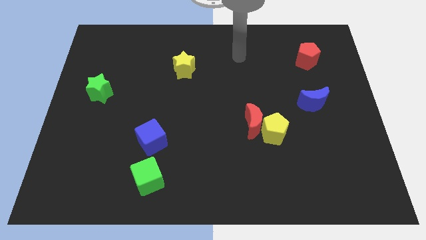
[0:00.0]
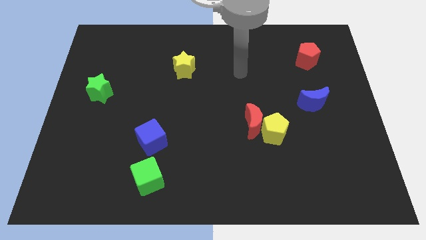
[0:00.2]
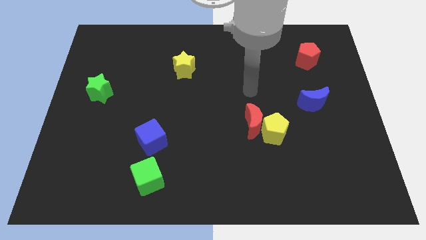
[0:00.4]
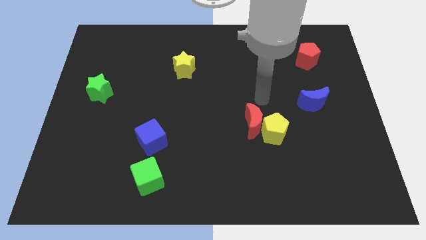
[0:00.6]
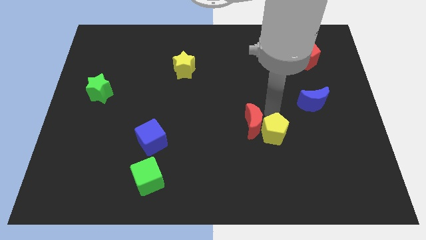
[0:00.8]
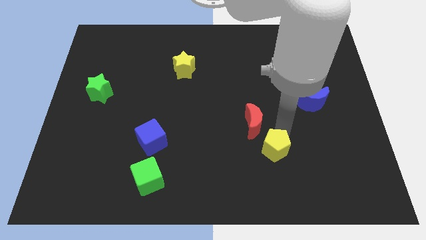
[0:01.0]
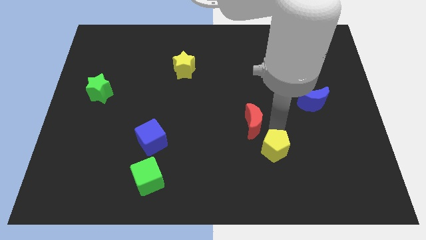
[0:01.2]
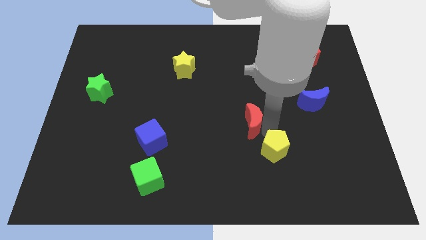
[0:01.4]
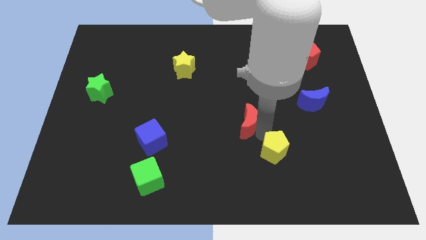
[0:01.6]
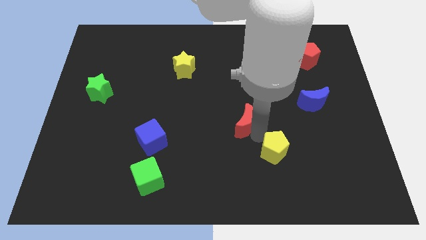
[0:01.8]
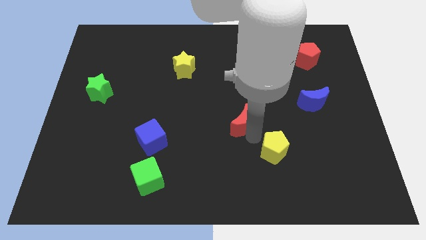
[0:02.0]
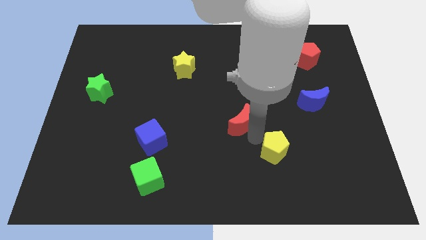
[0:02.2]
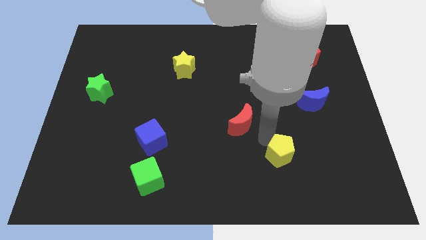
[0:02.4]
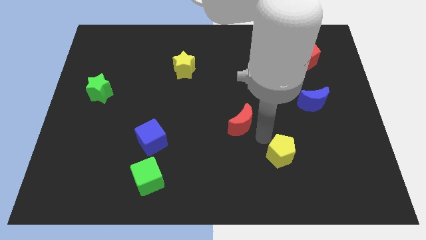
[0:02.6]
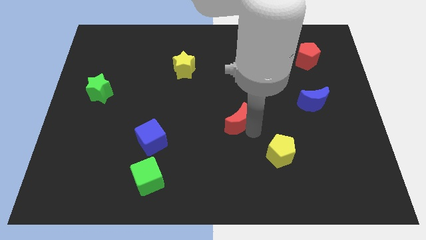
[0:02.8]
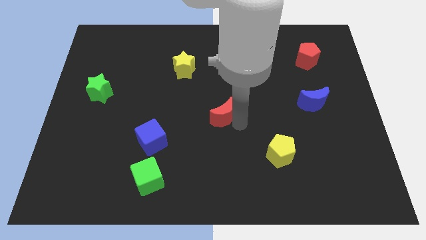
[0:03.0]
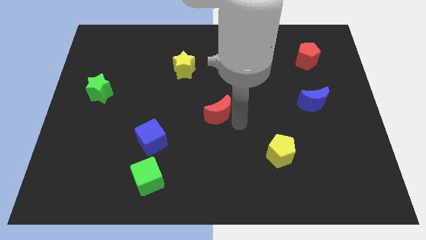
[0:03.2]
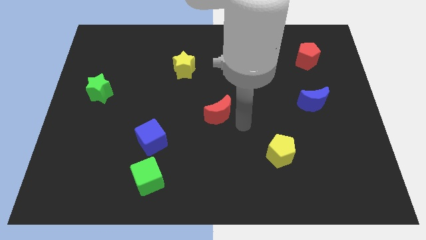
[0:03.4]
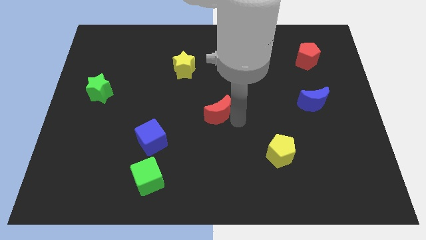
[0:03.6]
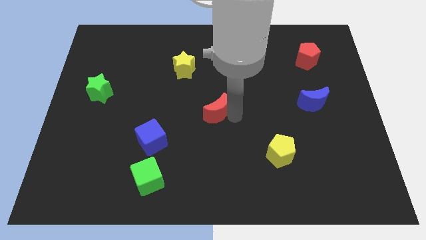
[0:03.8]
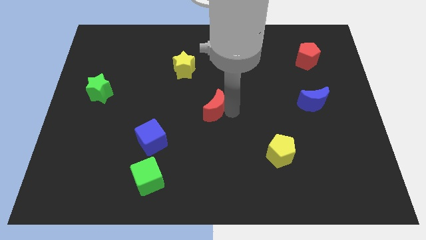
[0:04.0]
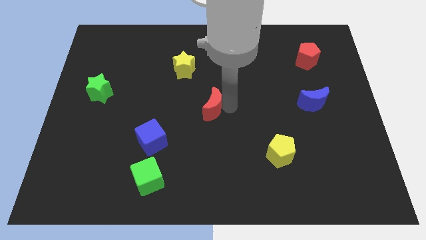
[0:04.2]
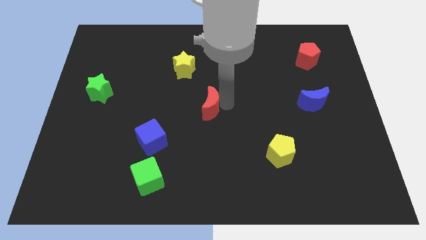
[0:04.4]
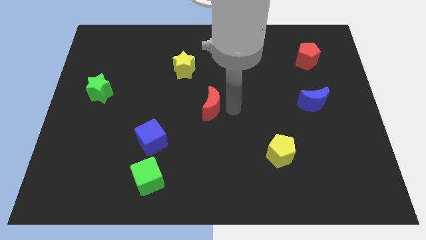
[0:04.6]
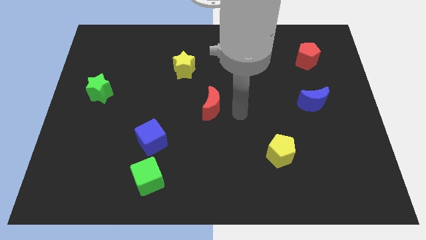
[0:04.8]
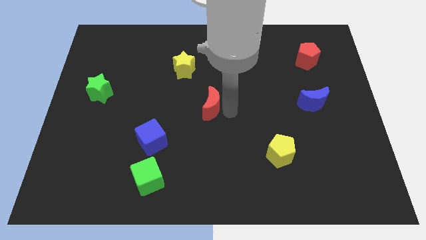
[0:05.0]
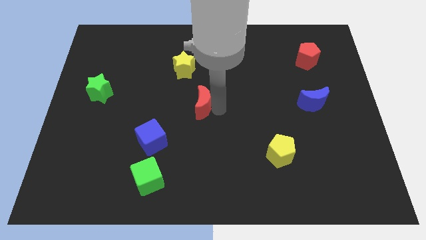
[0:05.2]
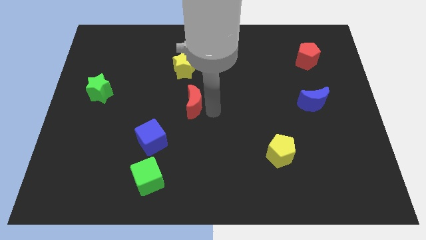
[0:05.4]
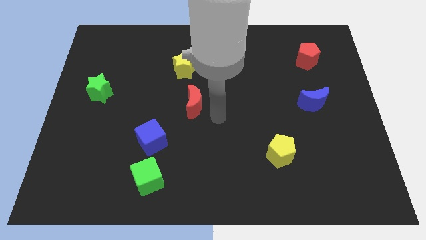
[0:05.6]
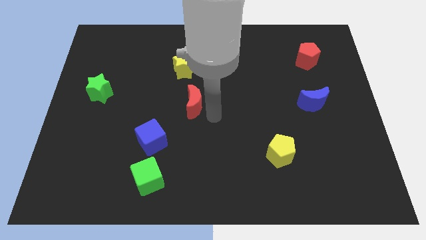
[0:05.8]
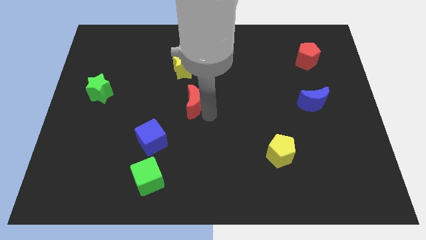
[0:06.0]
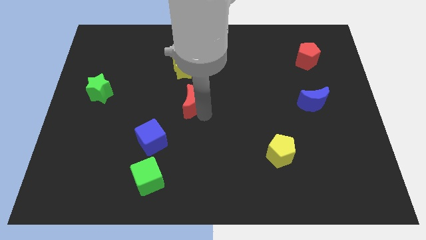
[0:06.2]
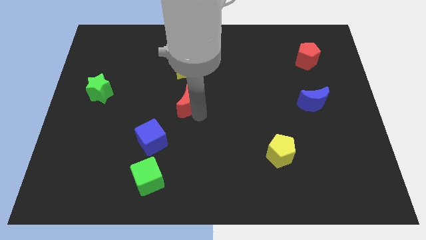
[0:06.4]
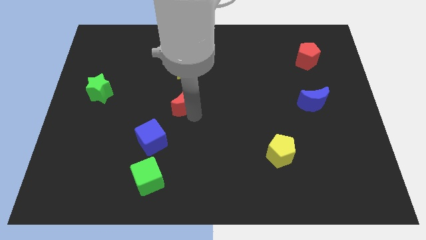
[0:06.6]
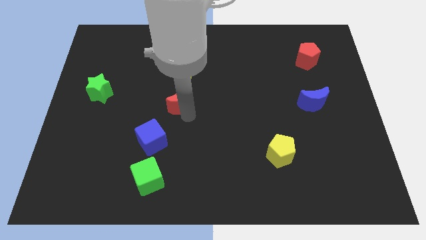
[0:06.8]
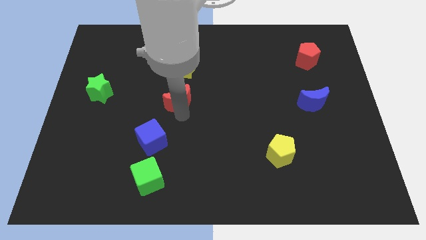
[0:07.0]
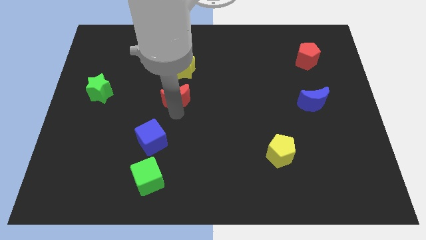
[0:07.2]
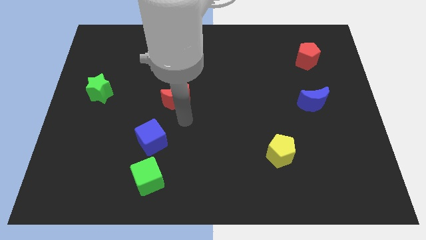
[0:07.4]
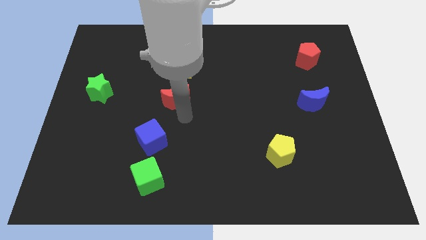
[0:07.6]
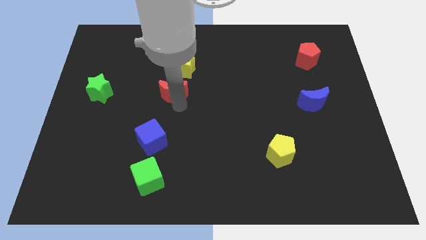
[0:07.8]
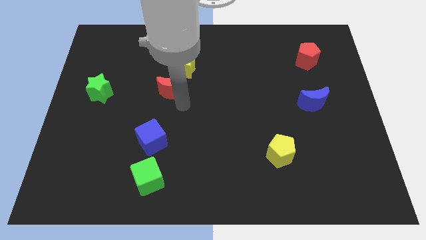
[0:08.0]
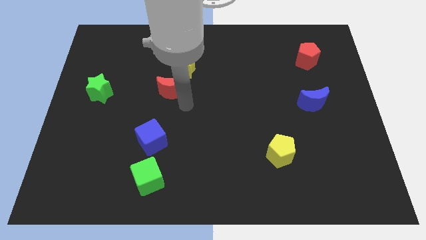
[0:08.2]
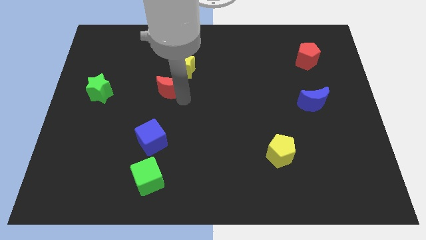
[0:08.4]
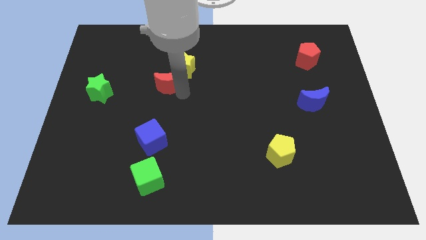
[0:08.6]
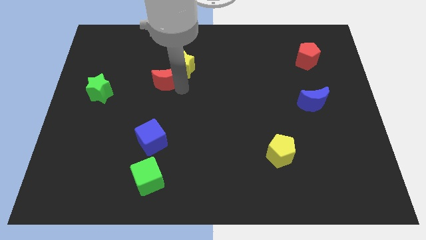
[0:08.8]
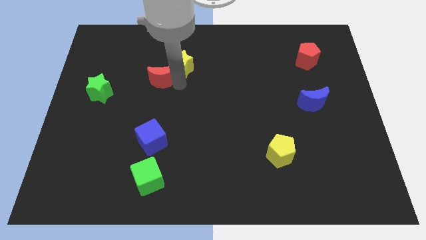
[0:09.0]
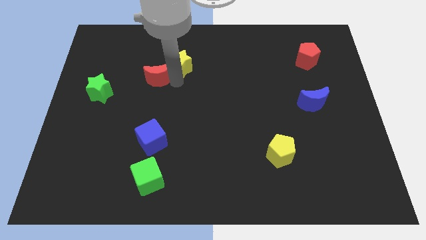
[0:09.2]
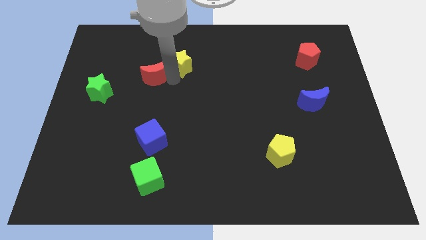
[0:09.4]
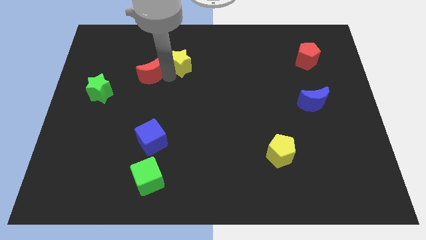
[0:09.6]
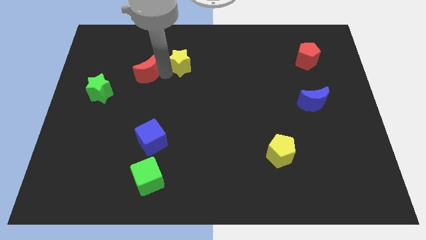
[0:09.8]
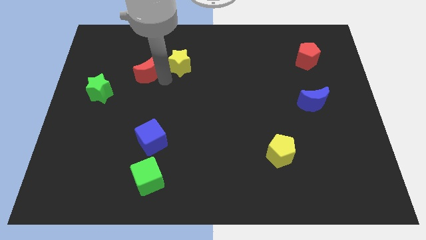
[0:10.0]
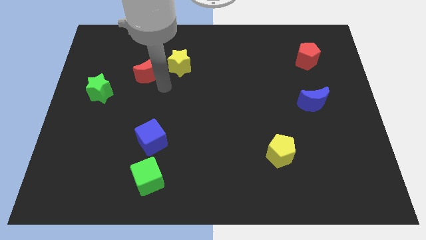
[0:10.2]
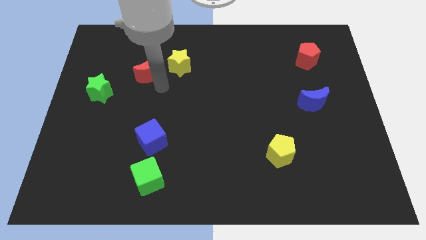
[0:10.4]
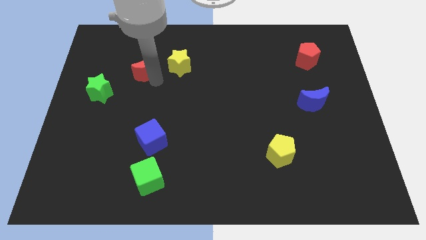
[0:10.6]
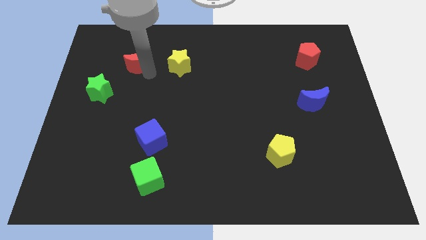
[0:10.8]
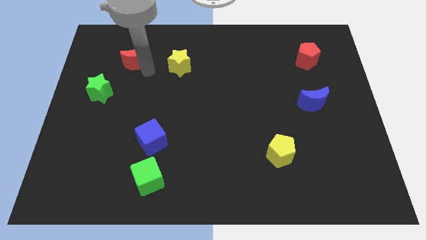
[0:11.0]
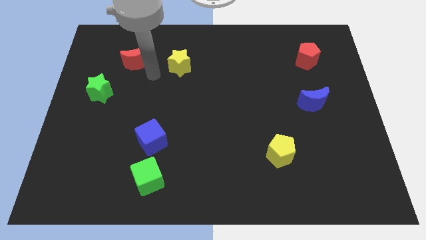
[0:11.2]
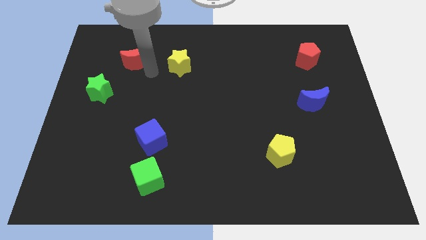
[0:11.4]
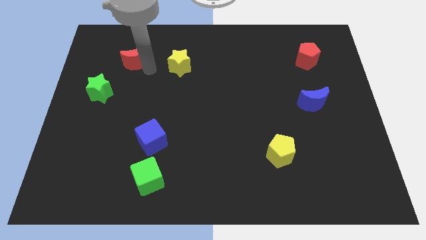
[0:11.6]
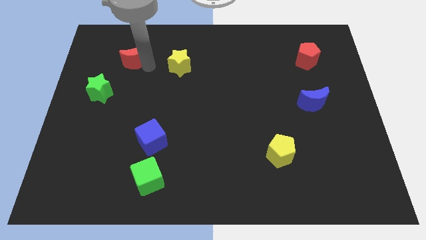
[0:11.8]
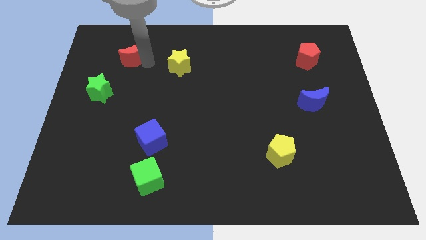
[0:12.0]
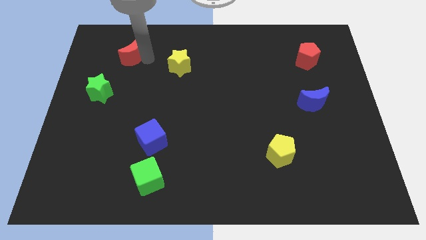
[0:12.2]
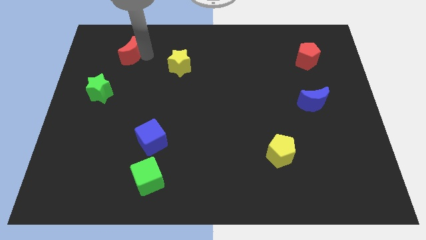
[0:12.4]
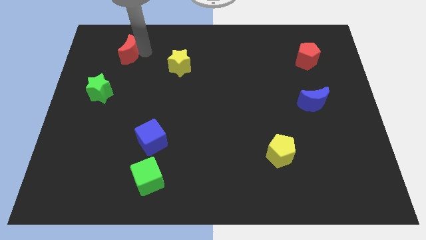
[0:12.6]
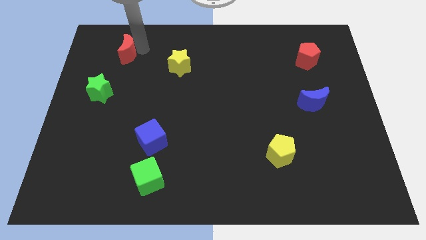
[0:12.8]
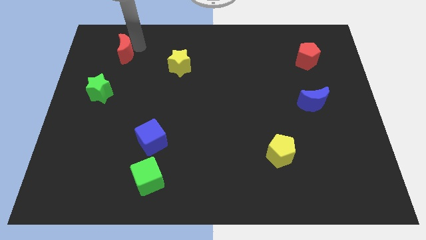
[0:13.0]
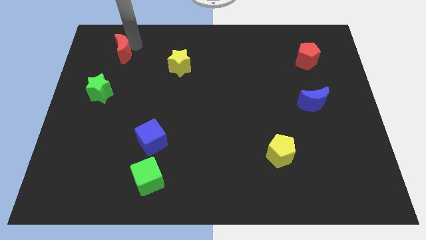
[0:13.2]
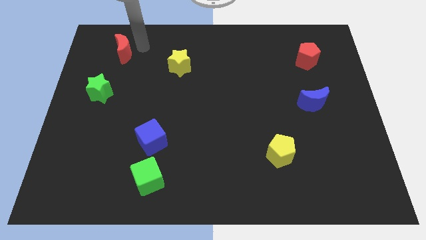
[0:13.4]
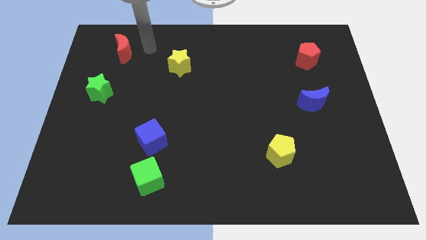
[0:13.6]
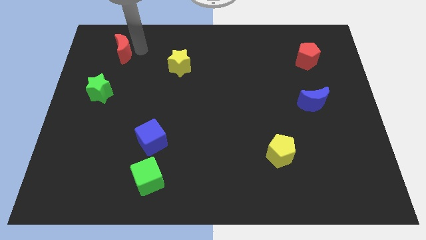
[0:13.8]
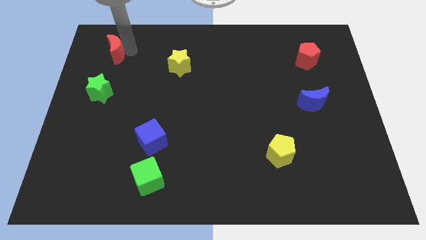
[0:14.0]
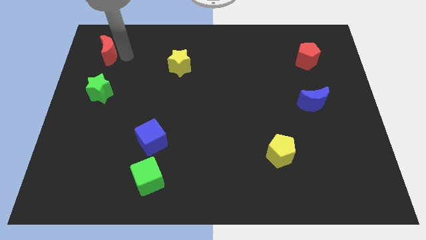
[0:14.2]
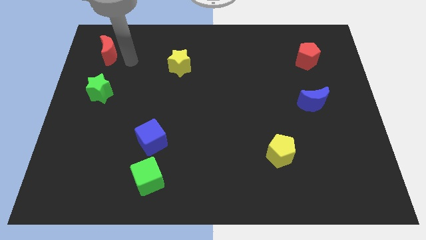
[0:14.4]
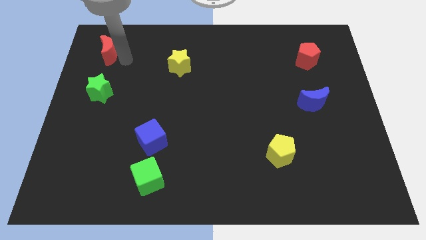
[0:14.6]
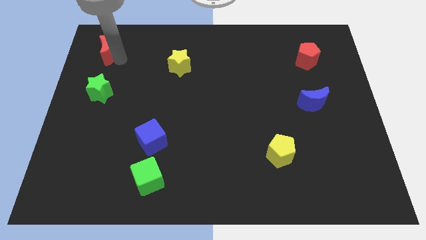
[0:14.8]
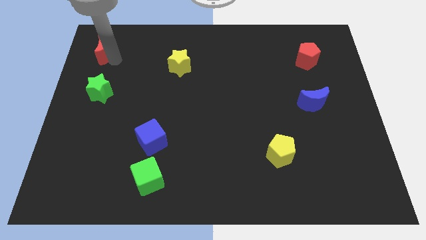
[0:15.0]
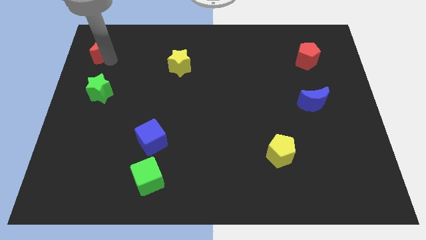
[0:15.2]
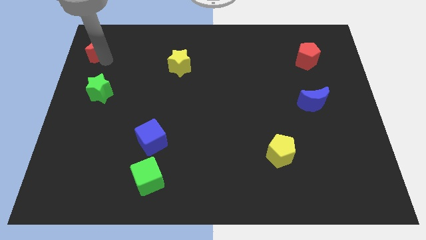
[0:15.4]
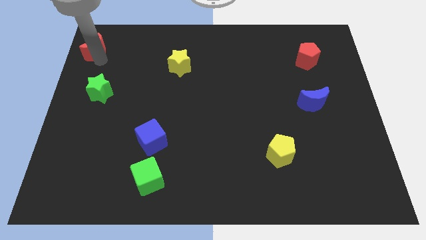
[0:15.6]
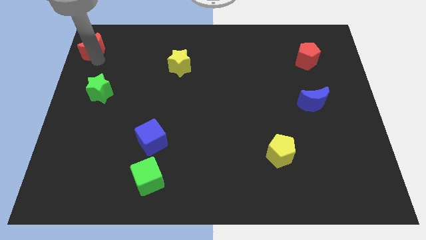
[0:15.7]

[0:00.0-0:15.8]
put the red moon to the top left
